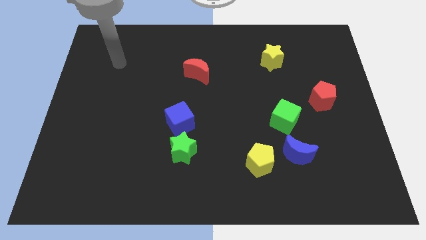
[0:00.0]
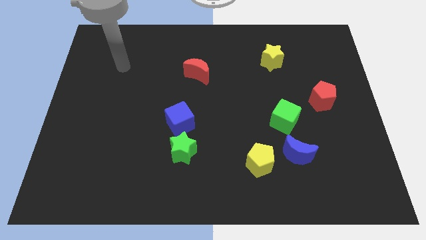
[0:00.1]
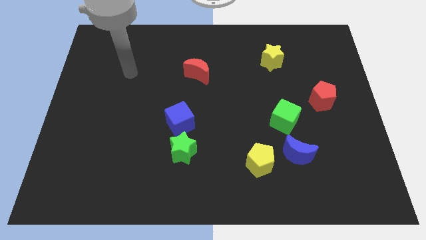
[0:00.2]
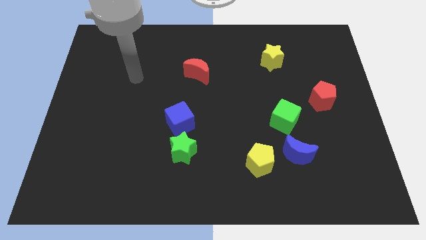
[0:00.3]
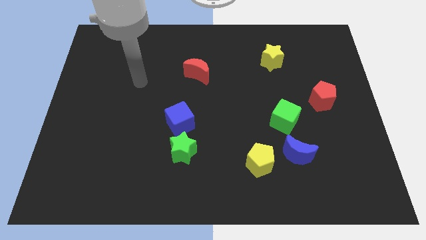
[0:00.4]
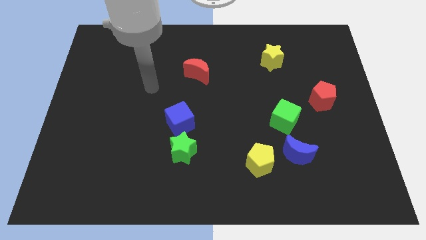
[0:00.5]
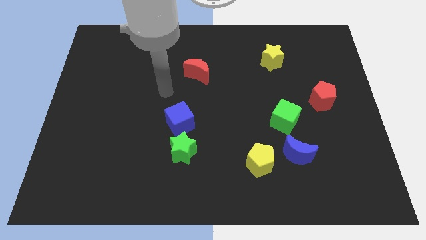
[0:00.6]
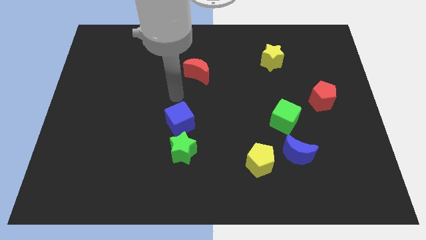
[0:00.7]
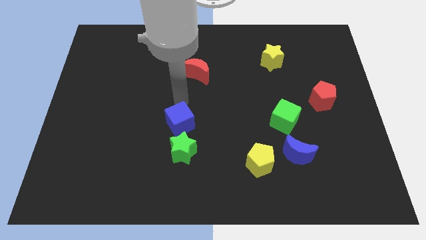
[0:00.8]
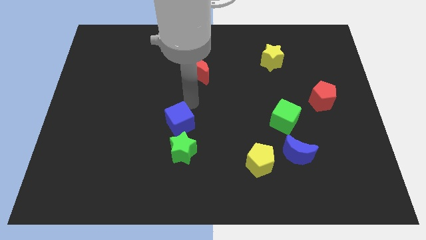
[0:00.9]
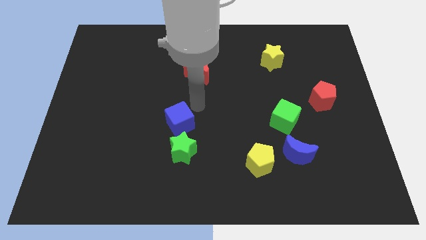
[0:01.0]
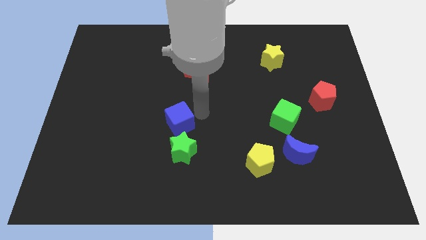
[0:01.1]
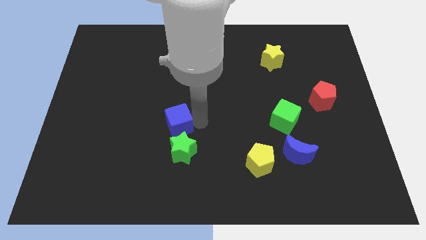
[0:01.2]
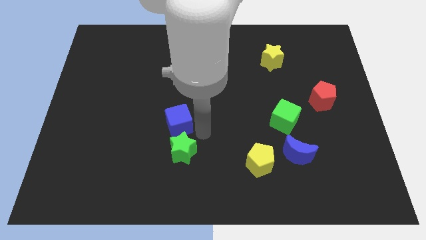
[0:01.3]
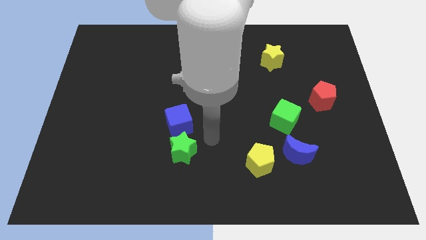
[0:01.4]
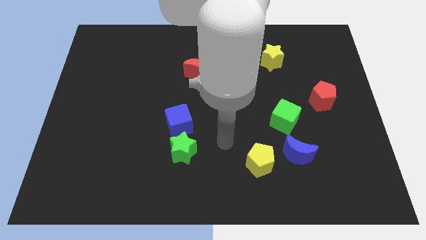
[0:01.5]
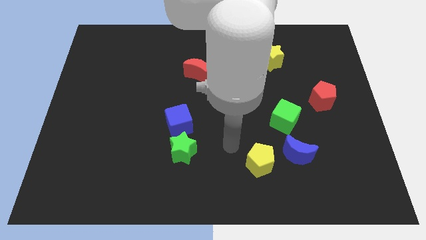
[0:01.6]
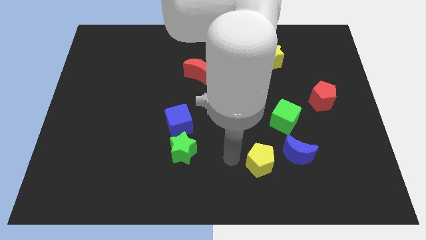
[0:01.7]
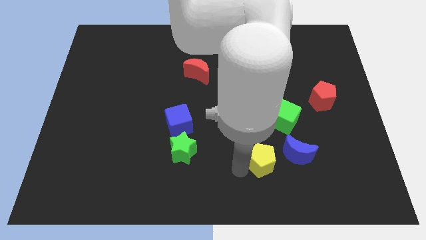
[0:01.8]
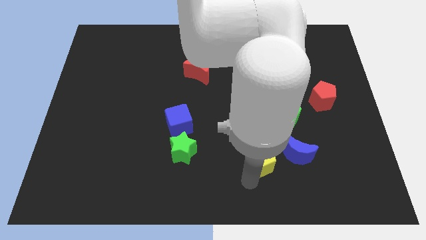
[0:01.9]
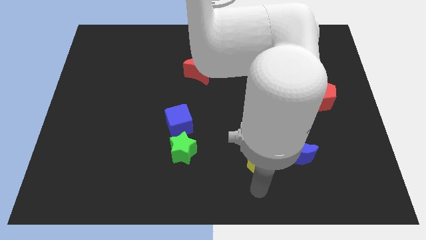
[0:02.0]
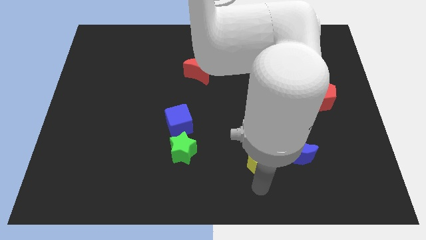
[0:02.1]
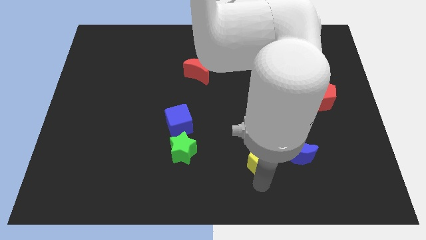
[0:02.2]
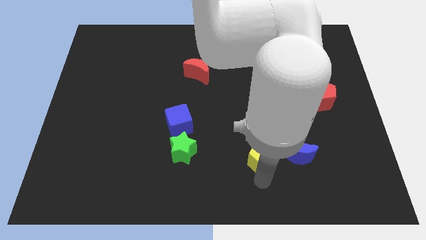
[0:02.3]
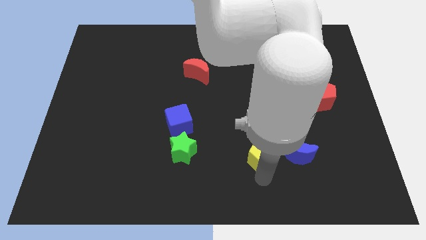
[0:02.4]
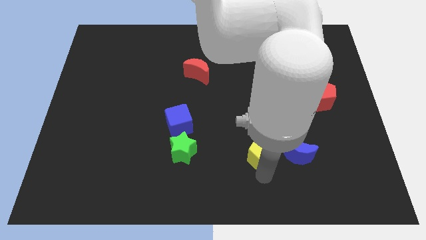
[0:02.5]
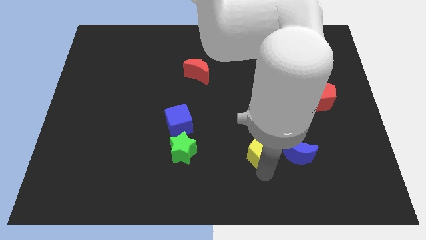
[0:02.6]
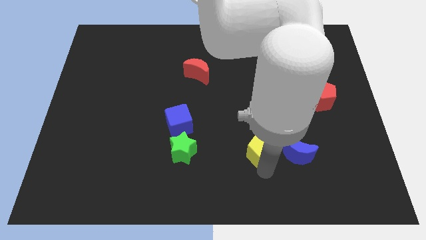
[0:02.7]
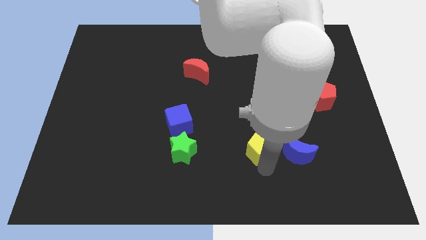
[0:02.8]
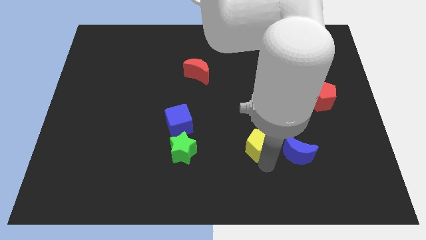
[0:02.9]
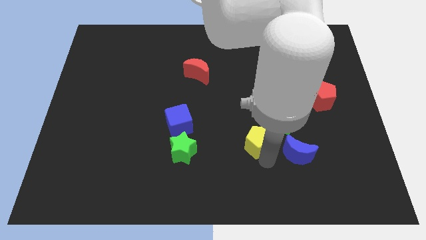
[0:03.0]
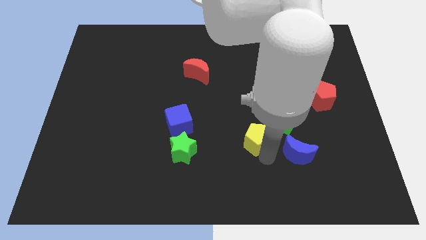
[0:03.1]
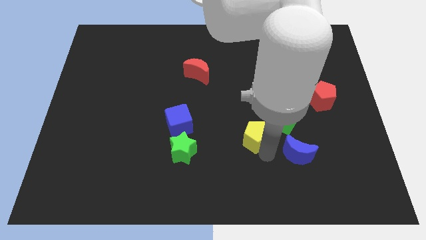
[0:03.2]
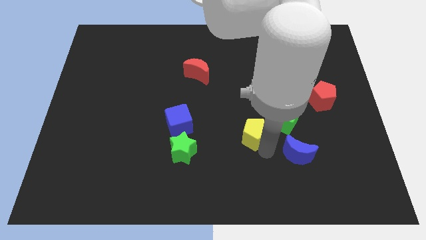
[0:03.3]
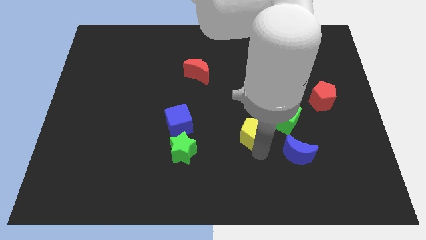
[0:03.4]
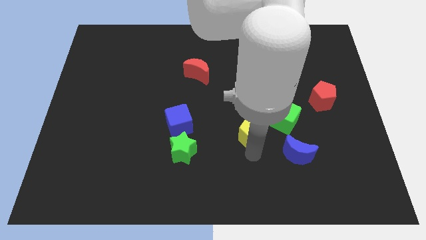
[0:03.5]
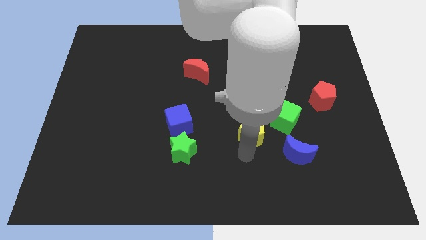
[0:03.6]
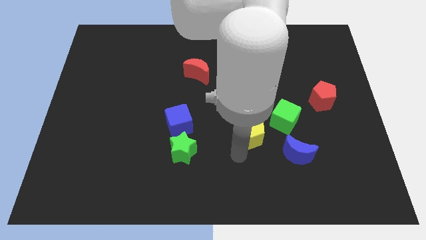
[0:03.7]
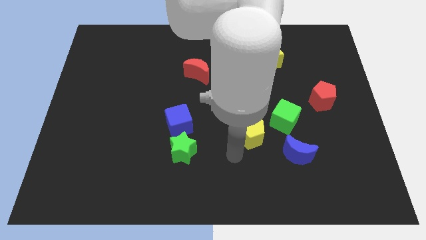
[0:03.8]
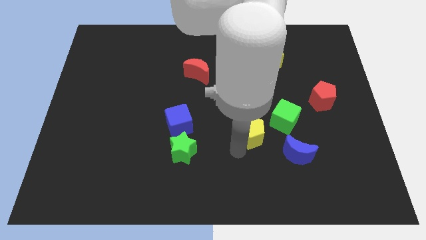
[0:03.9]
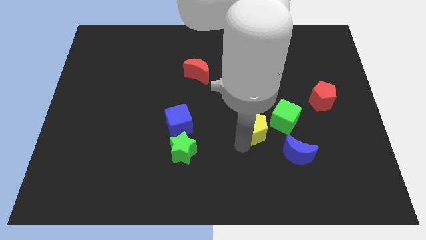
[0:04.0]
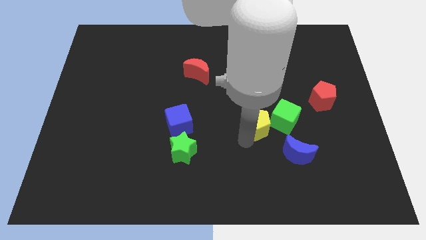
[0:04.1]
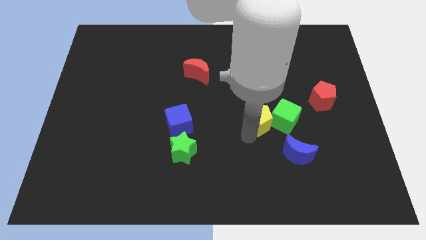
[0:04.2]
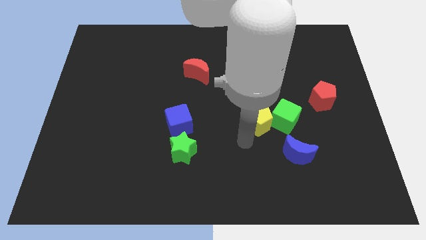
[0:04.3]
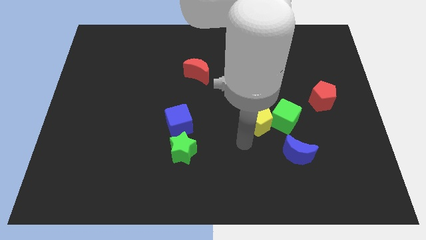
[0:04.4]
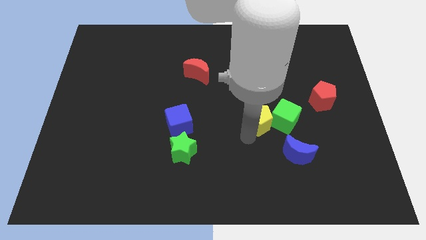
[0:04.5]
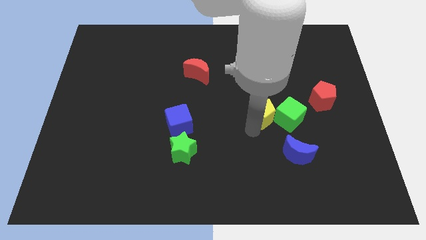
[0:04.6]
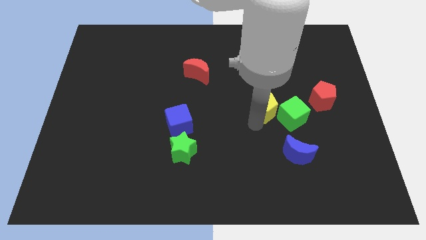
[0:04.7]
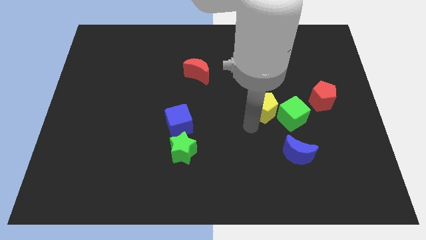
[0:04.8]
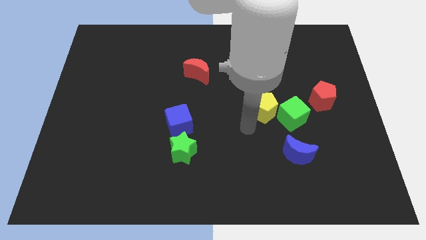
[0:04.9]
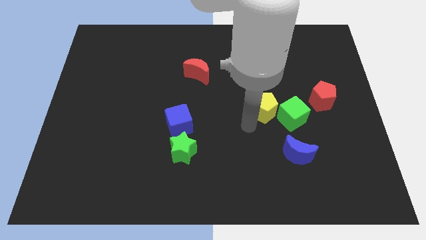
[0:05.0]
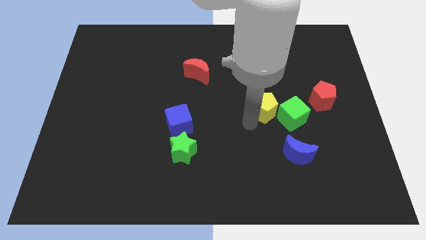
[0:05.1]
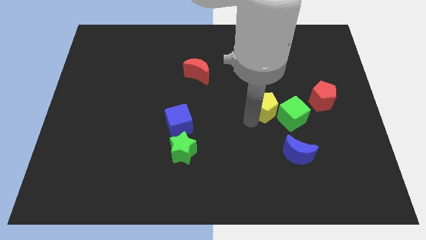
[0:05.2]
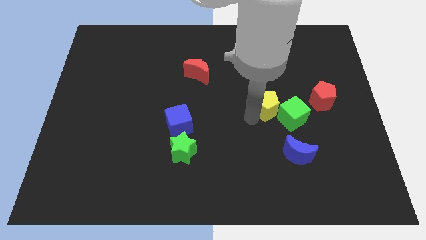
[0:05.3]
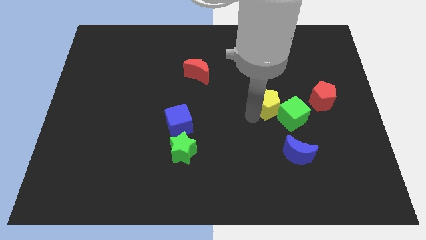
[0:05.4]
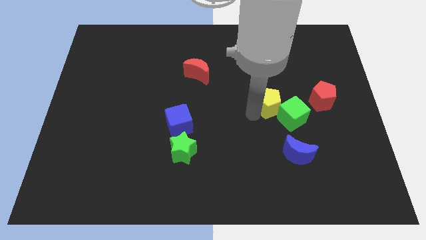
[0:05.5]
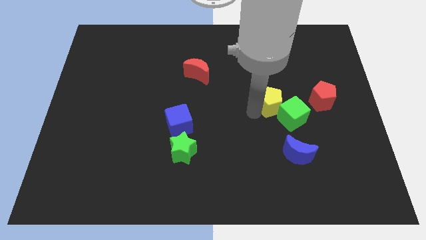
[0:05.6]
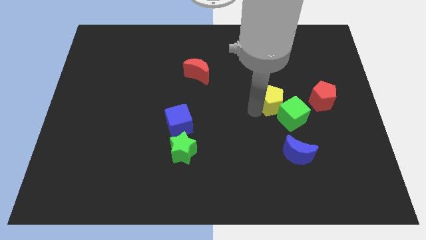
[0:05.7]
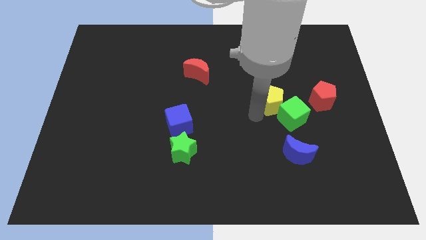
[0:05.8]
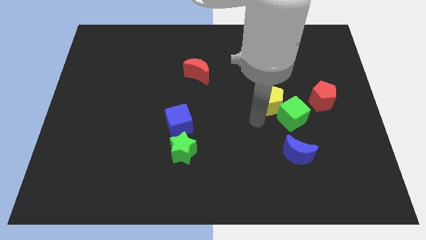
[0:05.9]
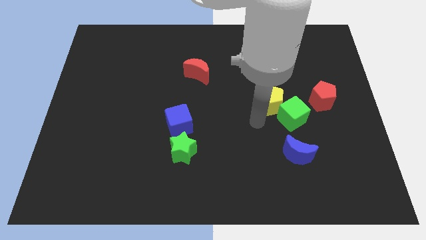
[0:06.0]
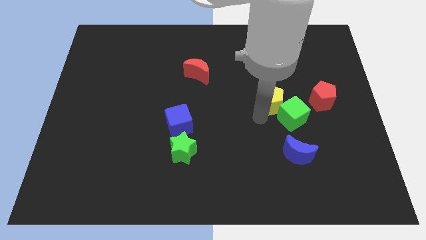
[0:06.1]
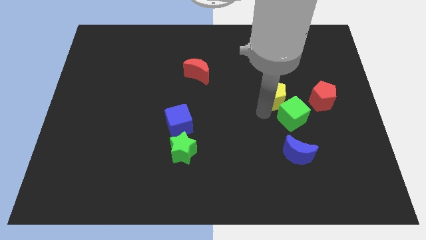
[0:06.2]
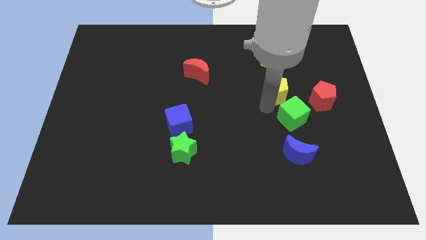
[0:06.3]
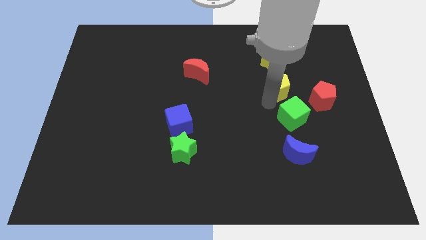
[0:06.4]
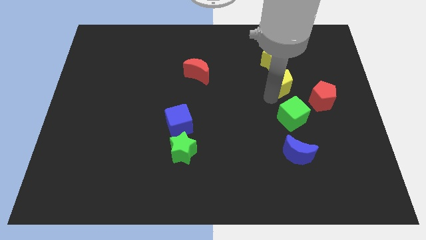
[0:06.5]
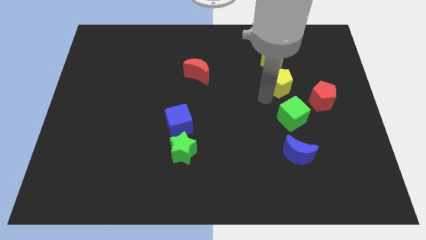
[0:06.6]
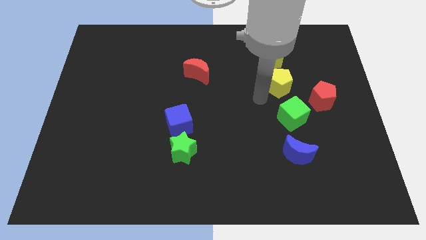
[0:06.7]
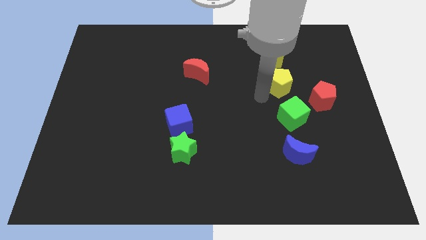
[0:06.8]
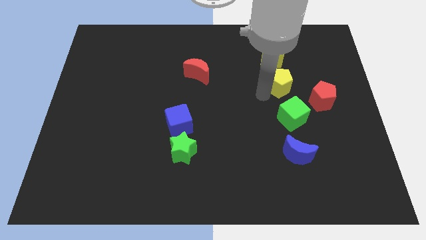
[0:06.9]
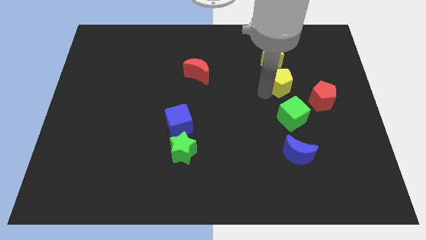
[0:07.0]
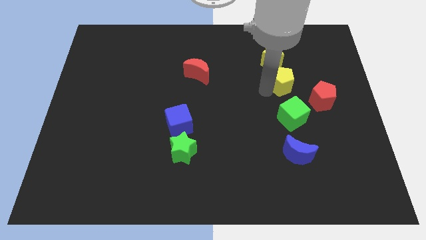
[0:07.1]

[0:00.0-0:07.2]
slide the yellow pentagon to the bottom right side of the yellow star
